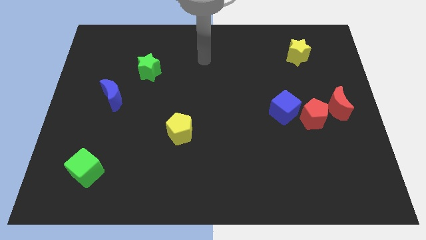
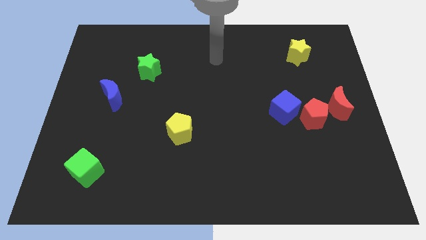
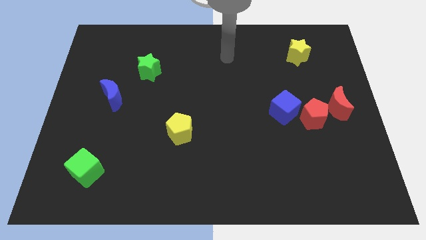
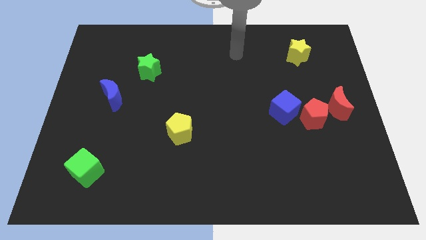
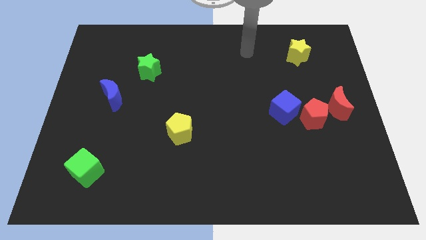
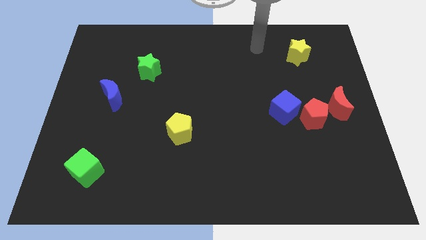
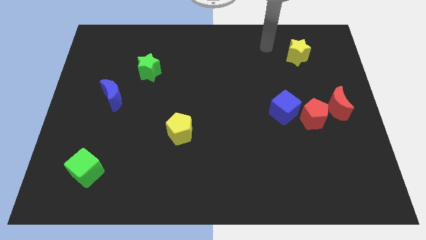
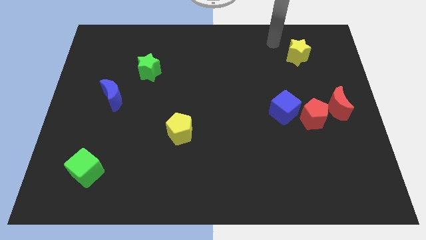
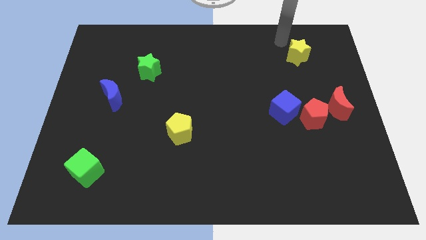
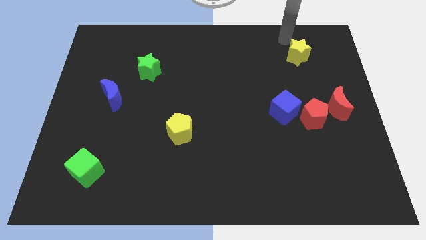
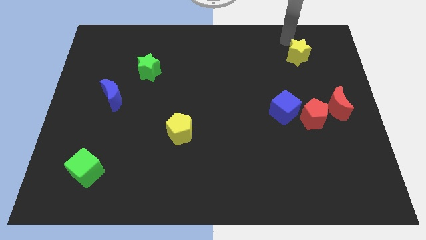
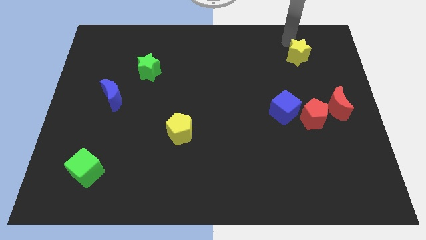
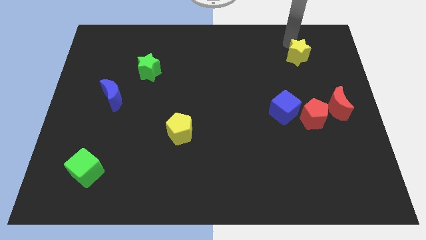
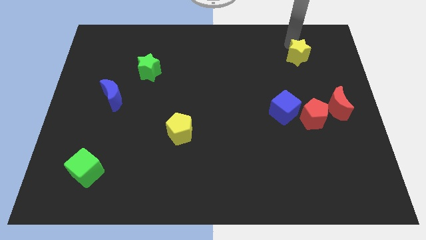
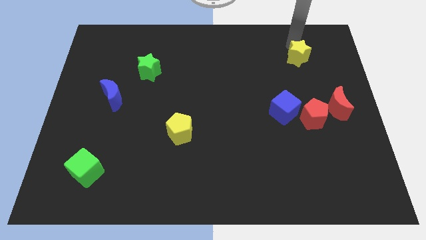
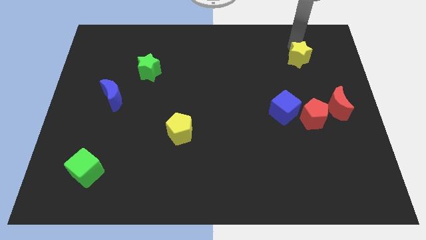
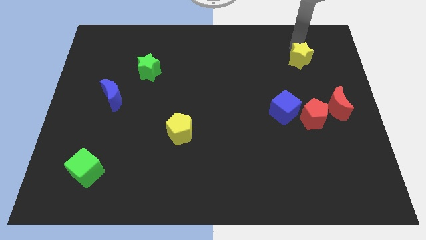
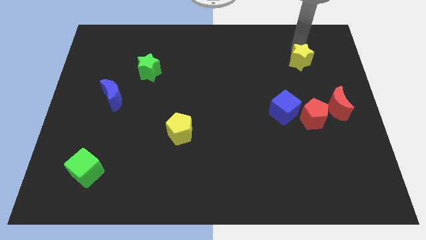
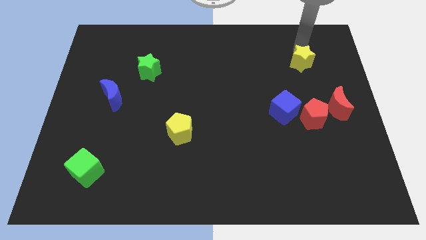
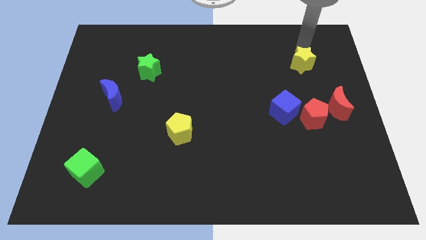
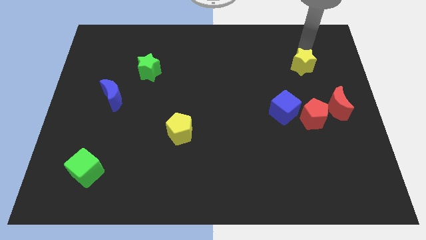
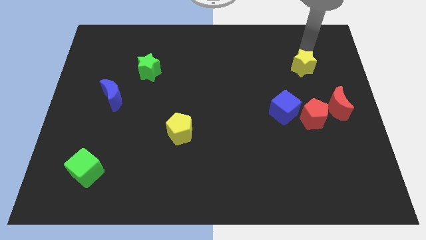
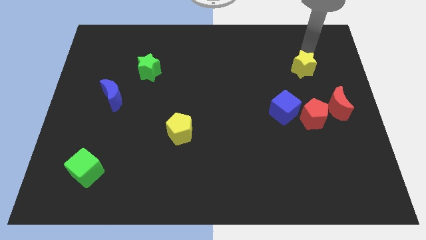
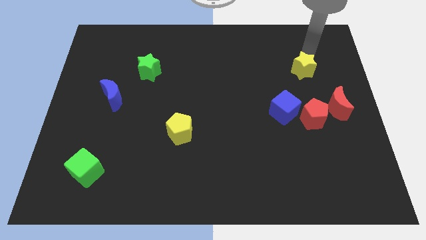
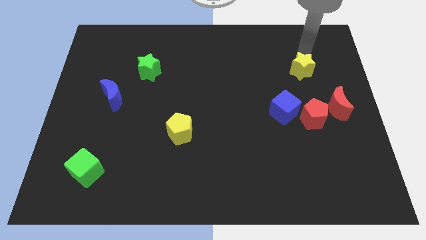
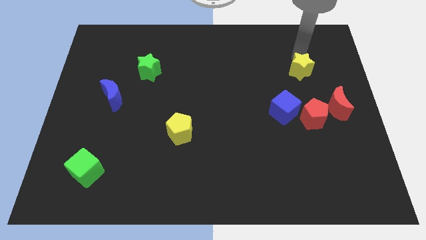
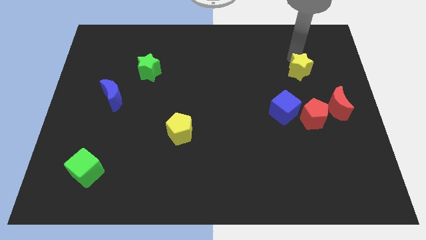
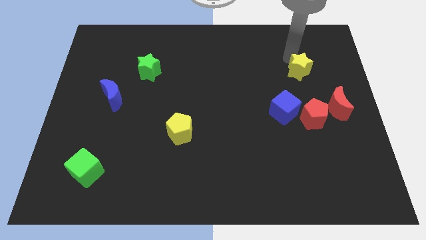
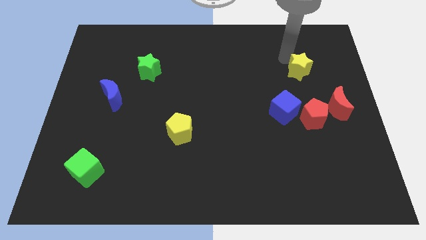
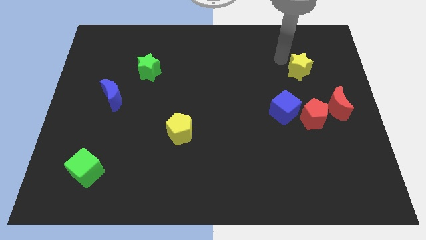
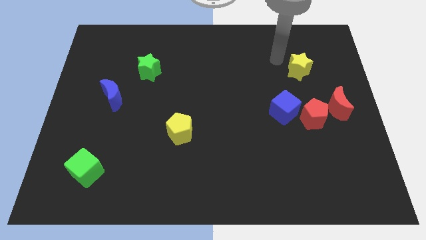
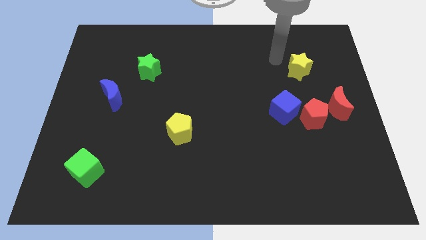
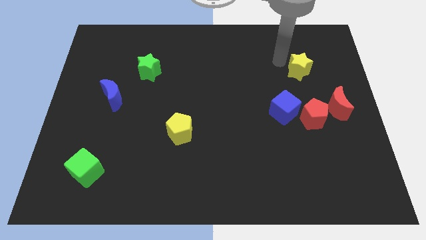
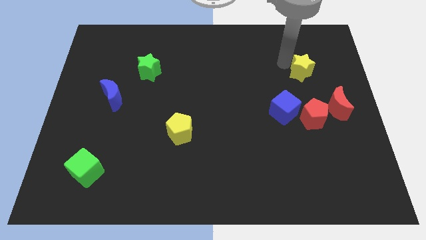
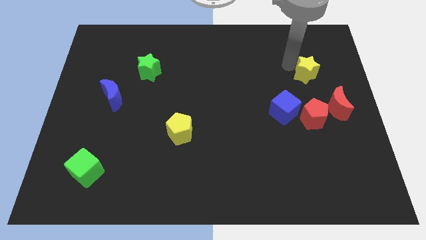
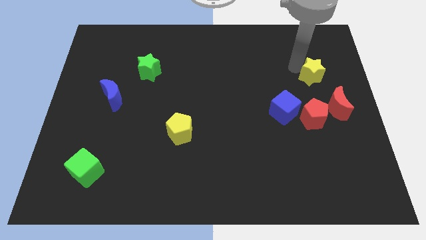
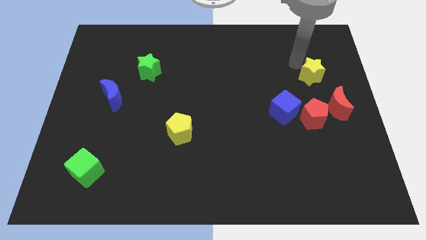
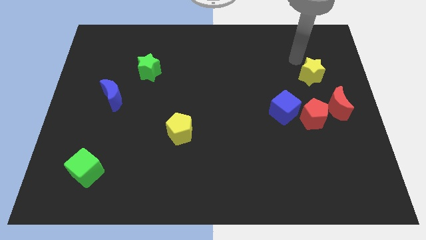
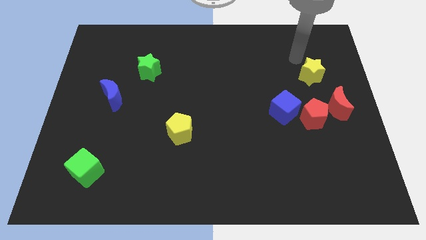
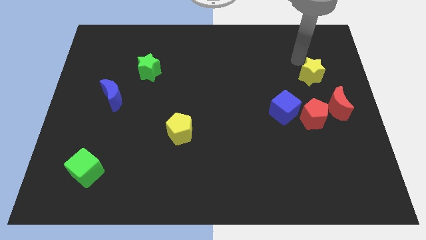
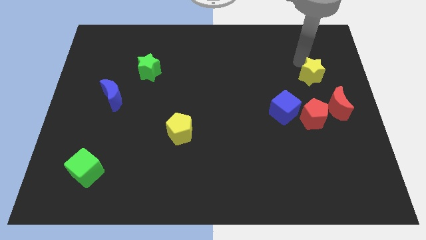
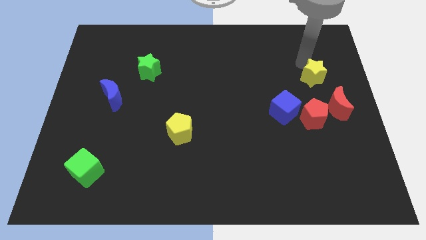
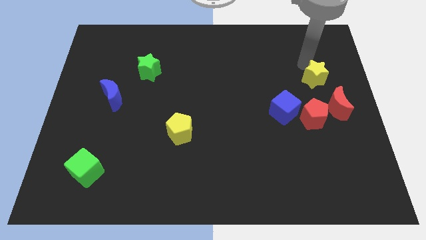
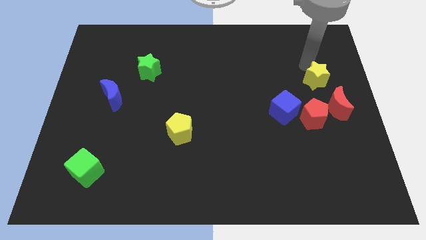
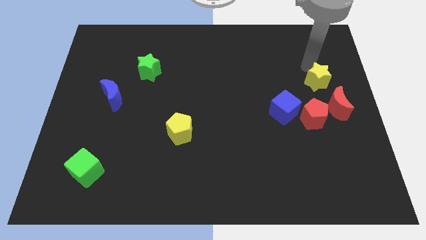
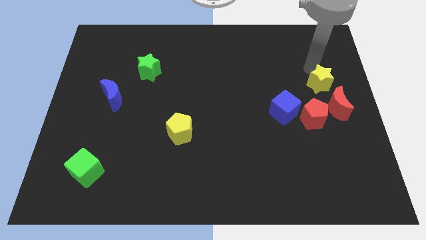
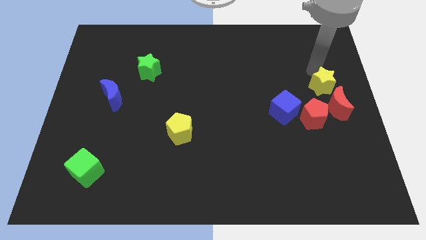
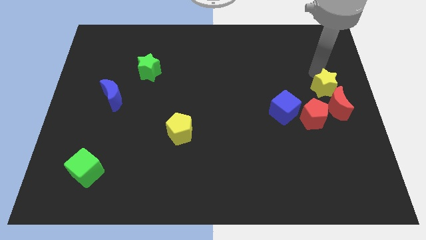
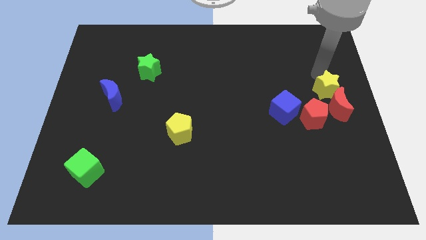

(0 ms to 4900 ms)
move the yellow star towards the red moon

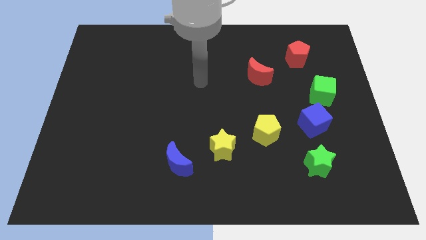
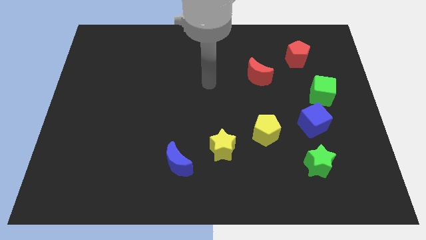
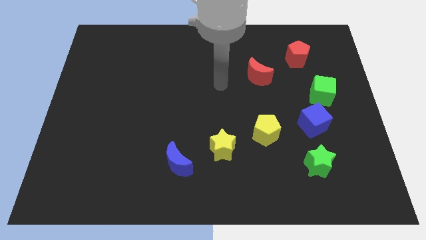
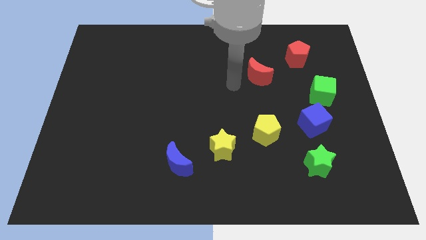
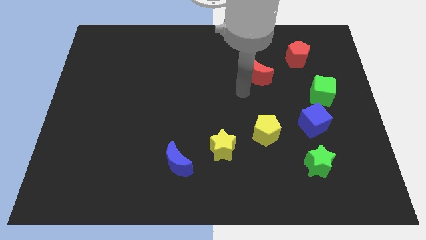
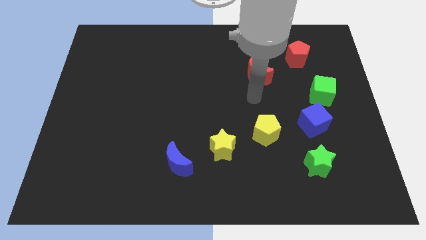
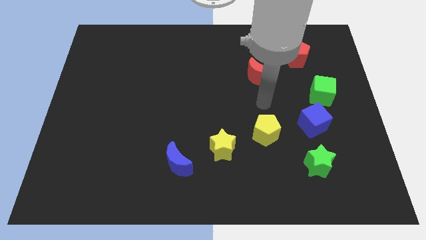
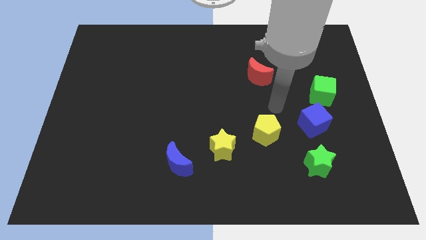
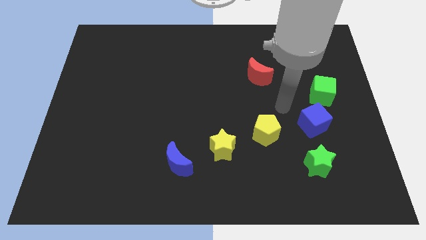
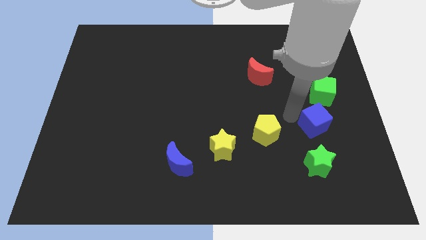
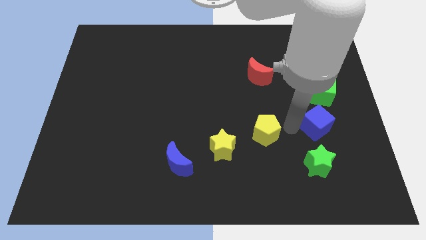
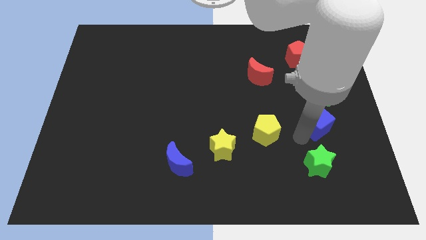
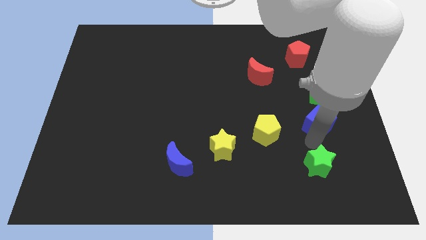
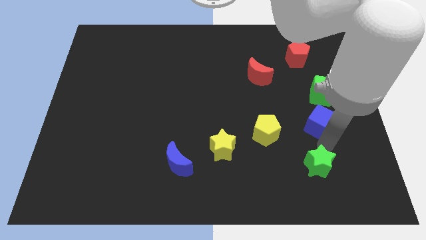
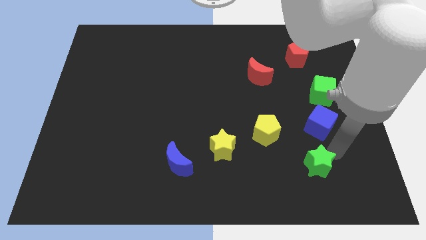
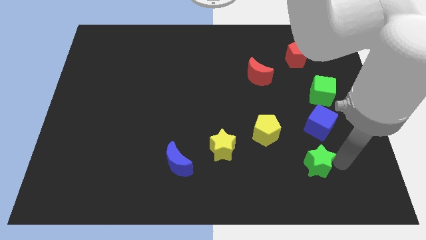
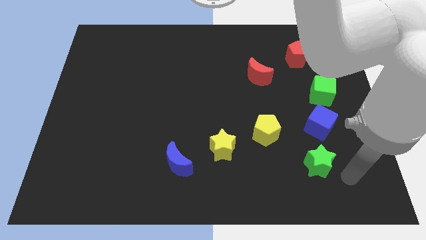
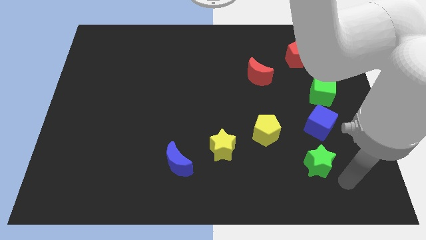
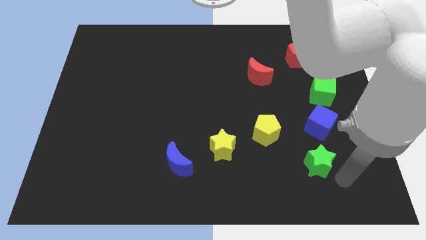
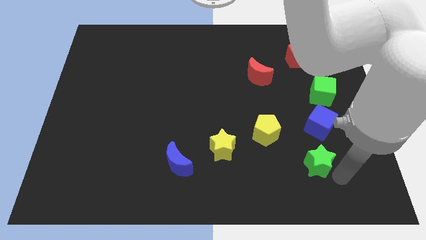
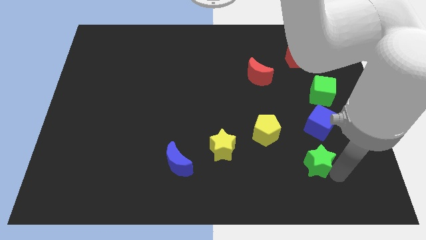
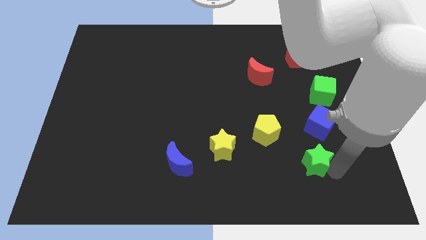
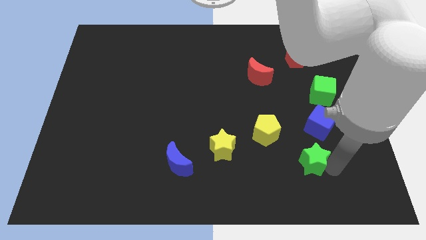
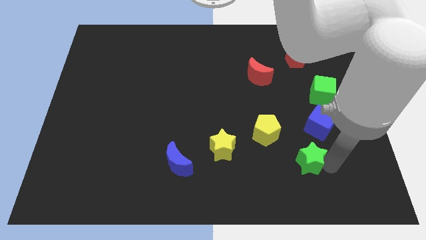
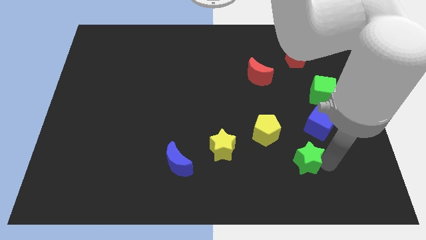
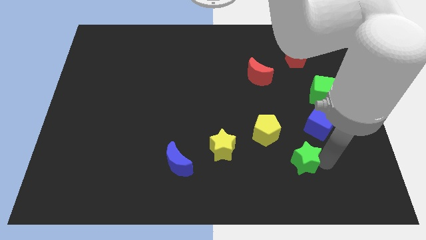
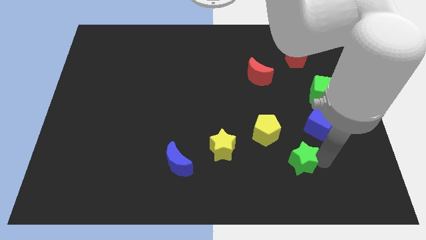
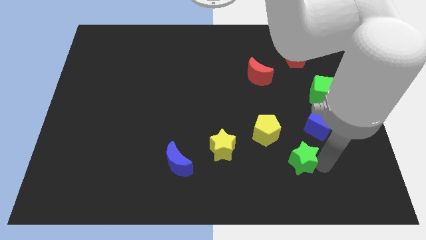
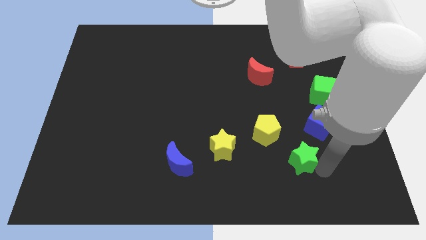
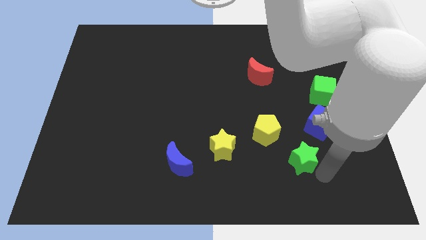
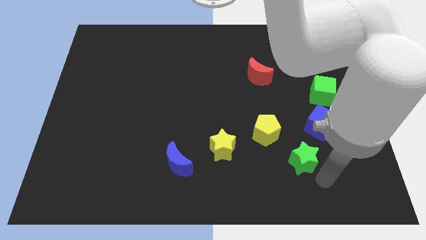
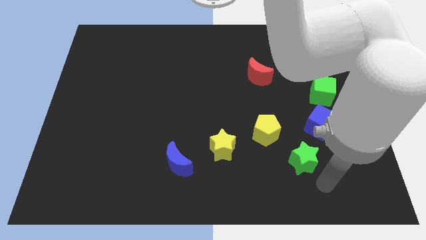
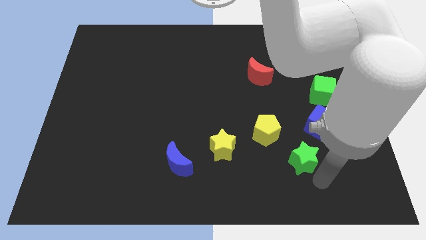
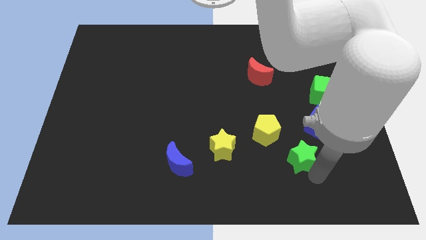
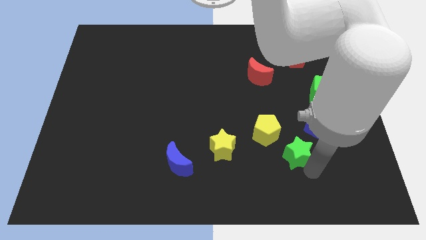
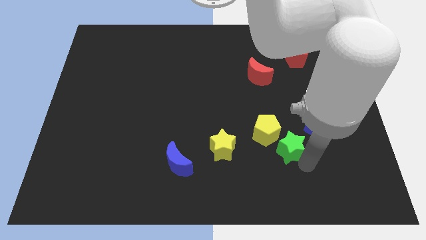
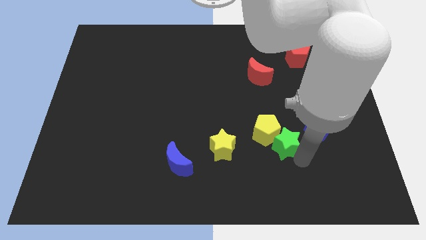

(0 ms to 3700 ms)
slide the green star next to the yellow pentagon
